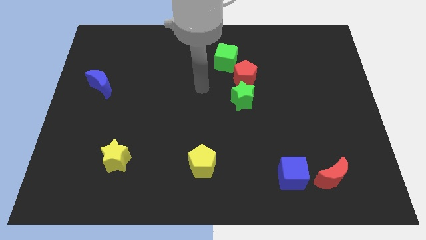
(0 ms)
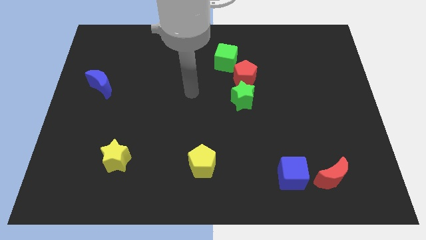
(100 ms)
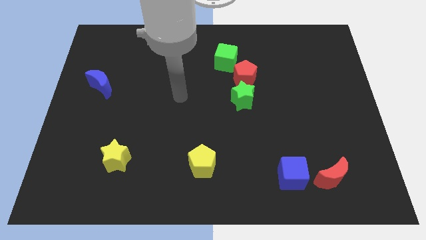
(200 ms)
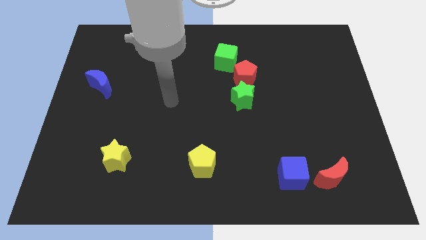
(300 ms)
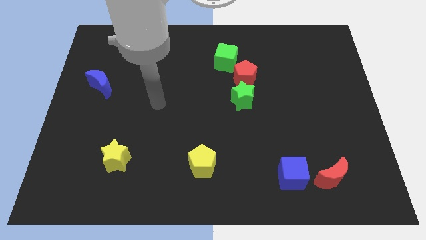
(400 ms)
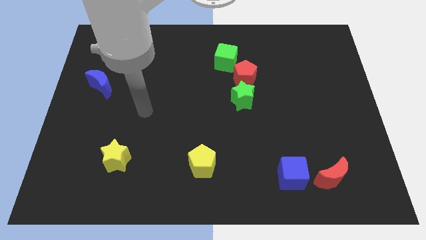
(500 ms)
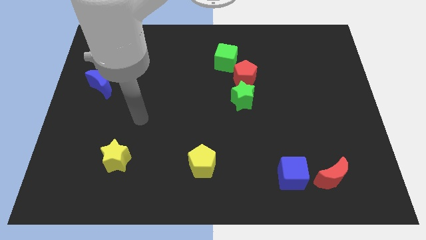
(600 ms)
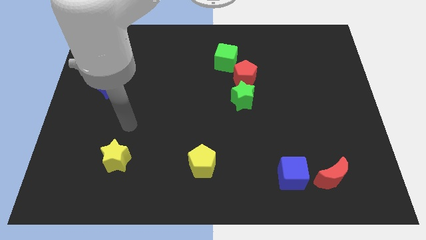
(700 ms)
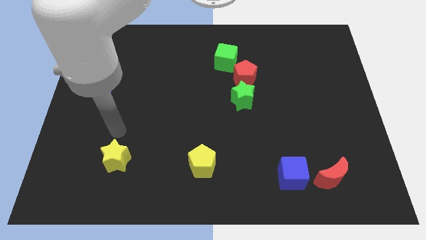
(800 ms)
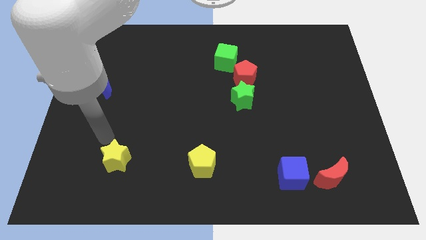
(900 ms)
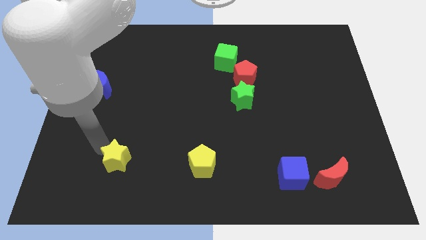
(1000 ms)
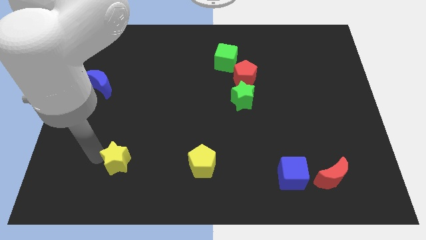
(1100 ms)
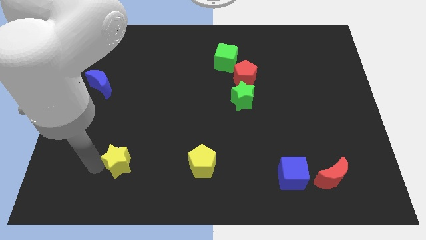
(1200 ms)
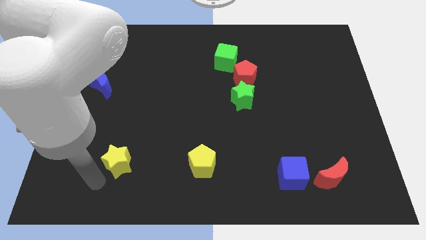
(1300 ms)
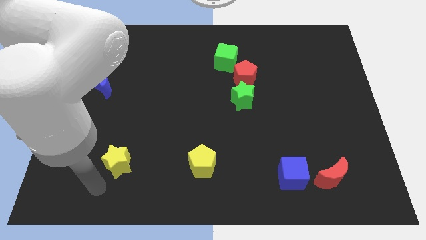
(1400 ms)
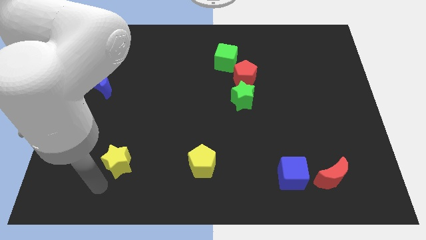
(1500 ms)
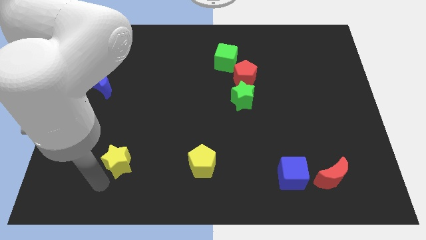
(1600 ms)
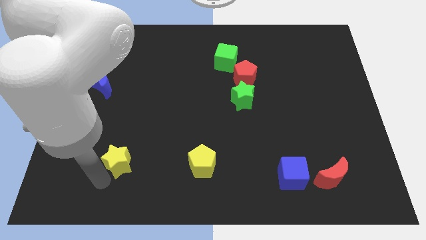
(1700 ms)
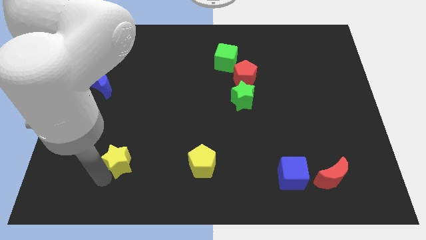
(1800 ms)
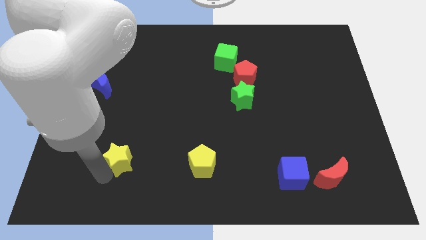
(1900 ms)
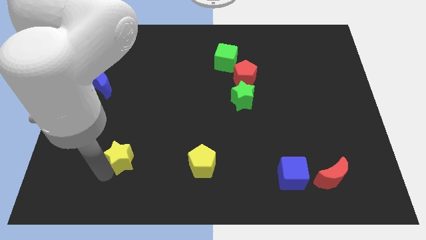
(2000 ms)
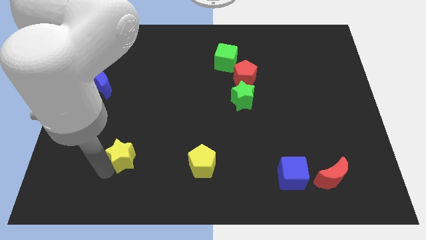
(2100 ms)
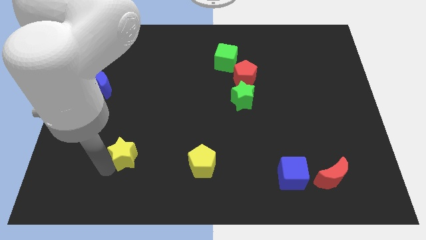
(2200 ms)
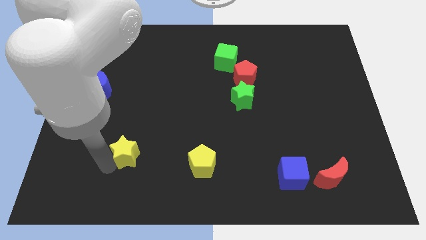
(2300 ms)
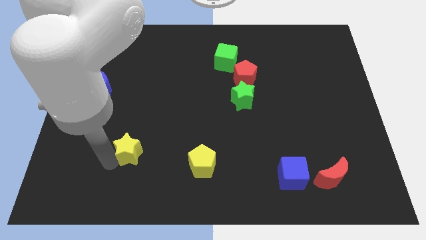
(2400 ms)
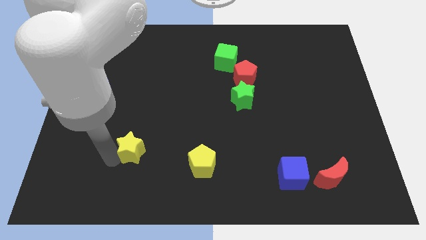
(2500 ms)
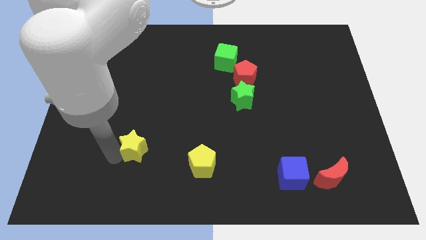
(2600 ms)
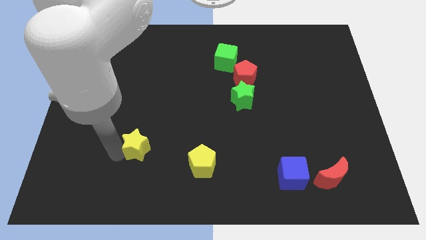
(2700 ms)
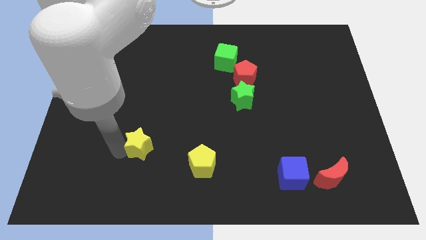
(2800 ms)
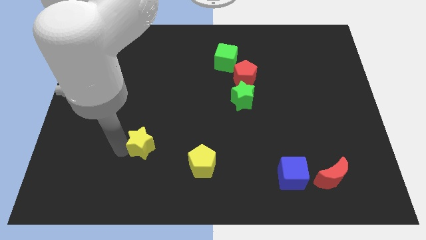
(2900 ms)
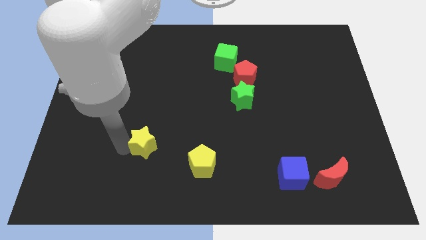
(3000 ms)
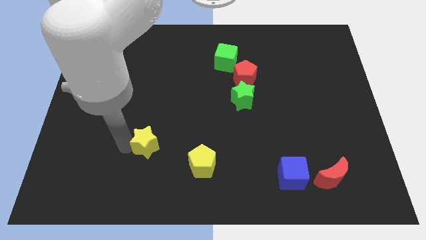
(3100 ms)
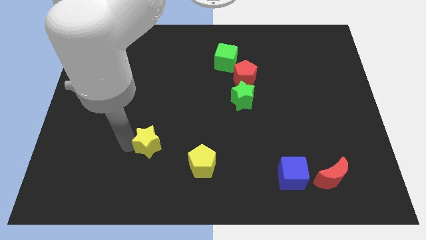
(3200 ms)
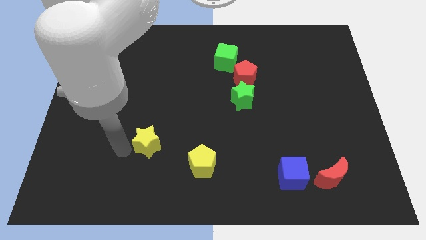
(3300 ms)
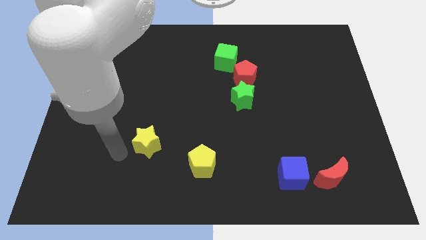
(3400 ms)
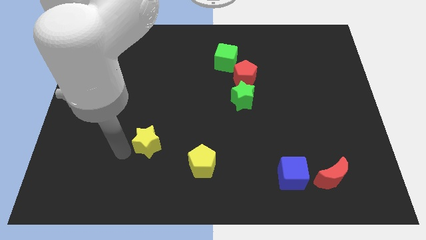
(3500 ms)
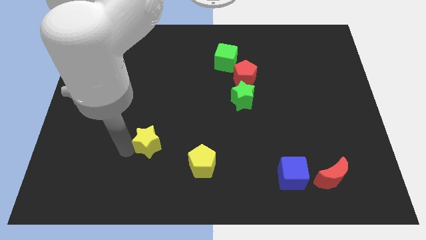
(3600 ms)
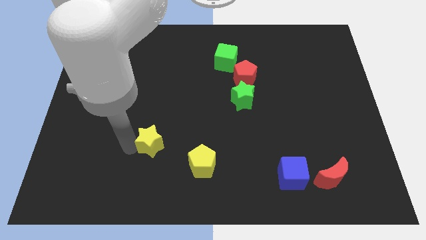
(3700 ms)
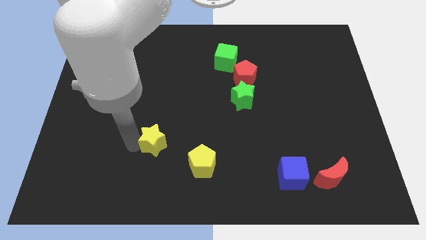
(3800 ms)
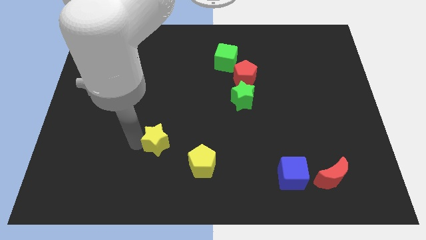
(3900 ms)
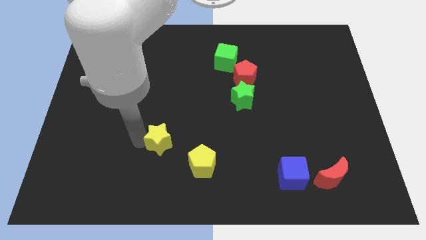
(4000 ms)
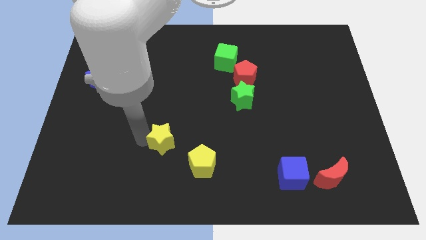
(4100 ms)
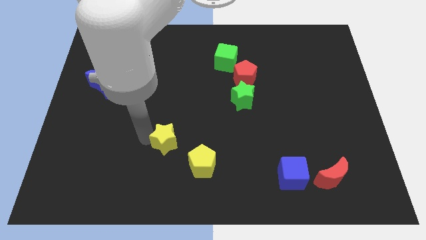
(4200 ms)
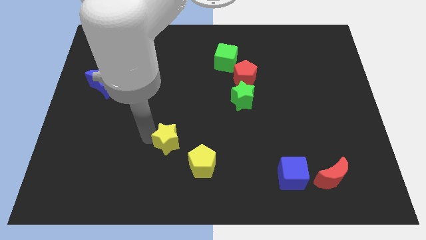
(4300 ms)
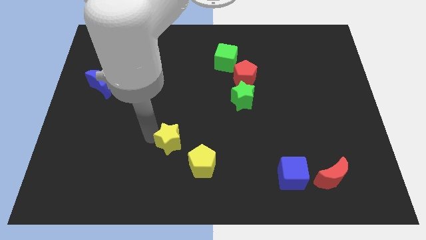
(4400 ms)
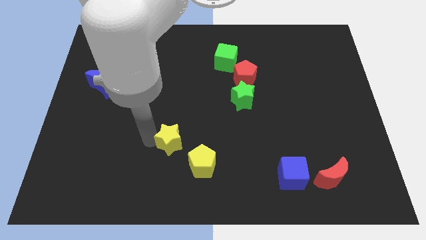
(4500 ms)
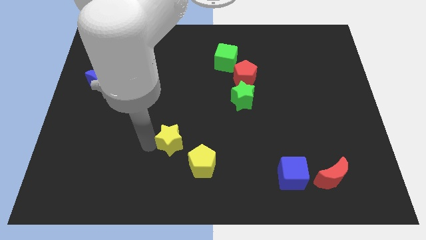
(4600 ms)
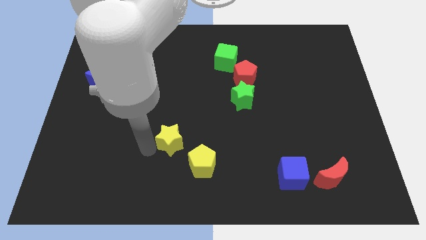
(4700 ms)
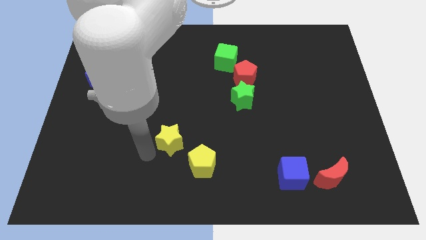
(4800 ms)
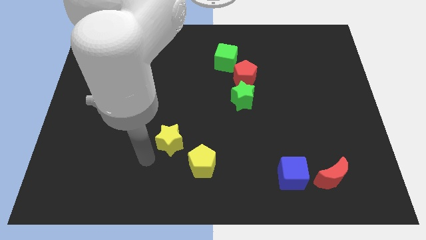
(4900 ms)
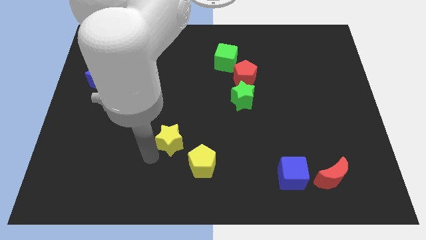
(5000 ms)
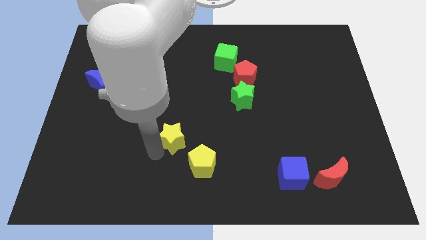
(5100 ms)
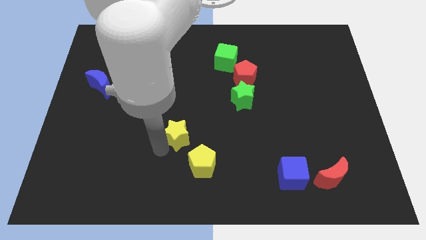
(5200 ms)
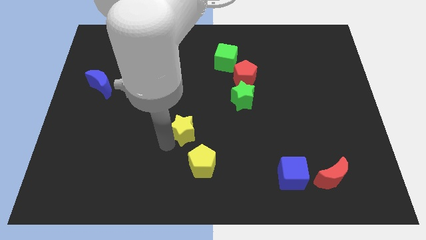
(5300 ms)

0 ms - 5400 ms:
put the yellow star above the yellow pentagon
